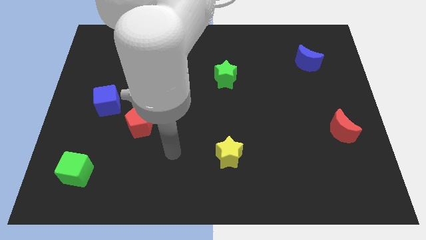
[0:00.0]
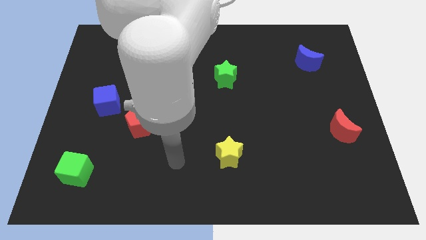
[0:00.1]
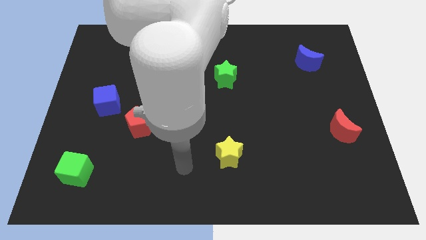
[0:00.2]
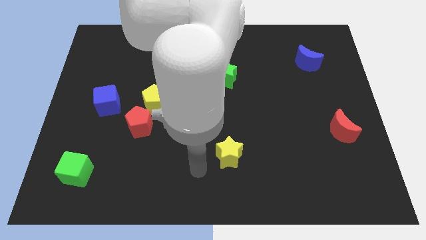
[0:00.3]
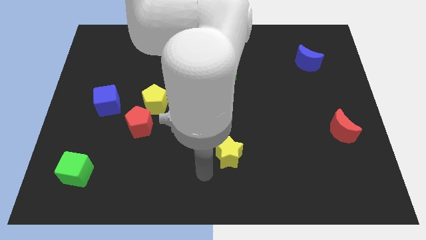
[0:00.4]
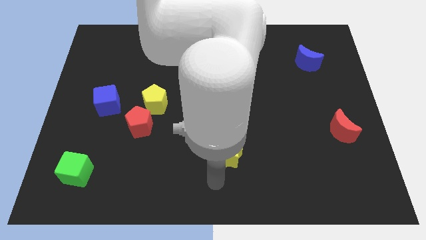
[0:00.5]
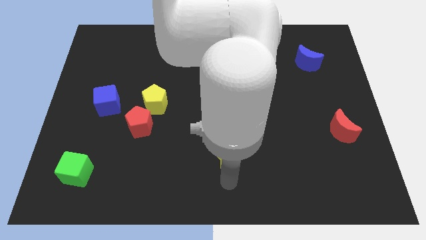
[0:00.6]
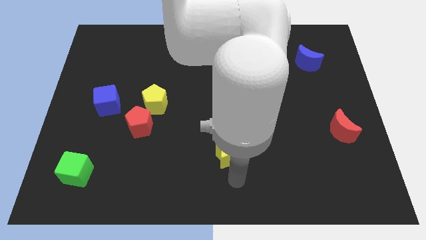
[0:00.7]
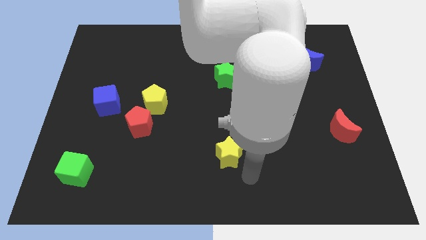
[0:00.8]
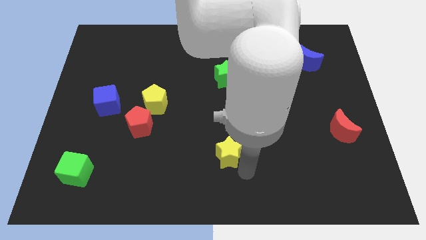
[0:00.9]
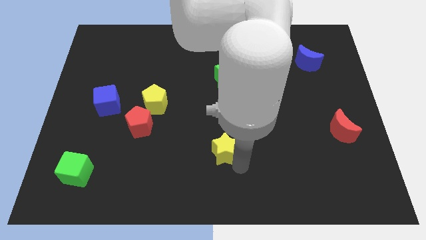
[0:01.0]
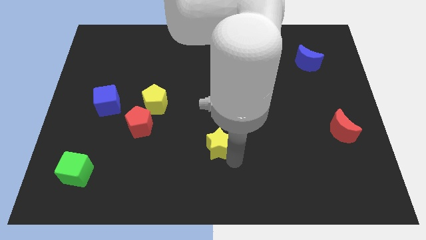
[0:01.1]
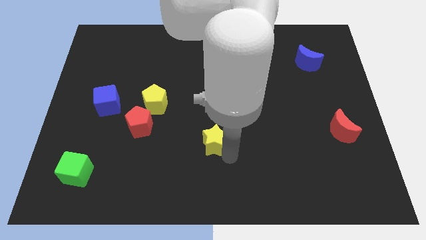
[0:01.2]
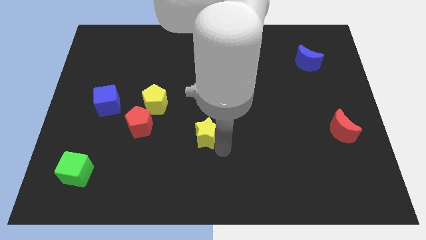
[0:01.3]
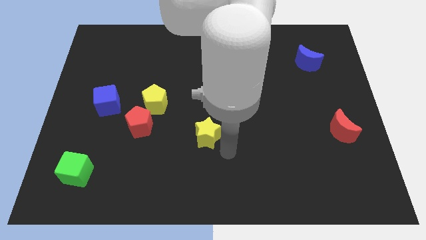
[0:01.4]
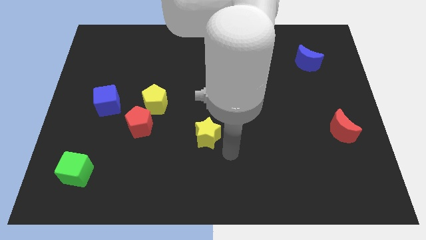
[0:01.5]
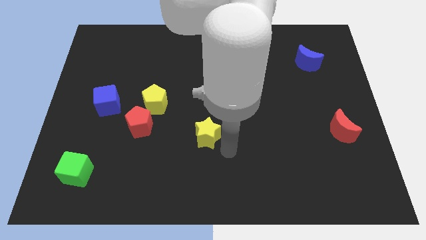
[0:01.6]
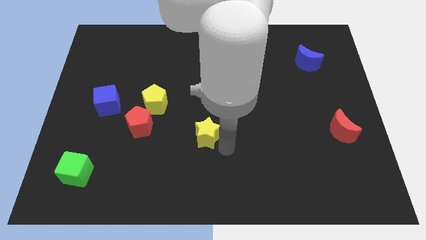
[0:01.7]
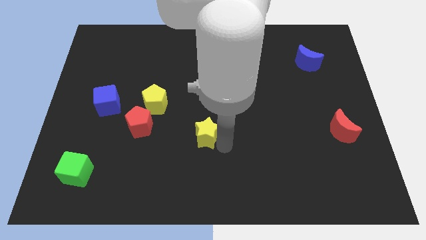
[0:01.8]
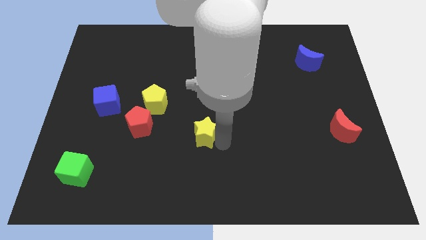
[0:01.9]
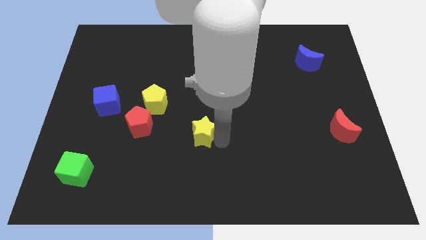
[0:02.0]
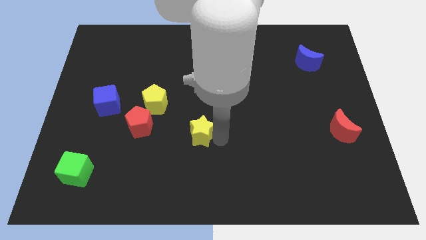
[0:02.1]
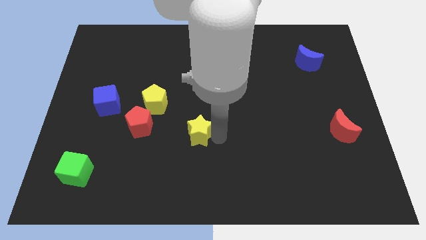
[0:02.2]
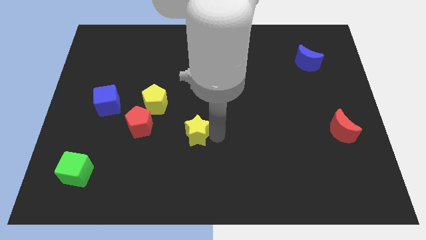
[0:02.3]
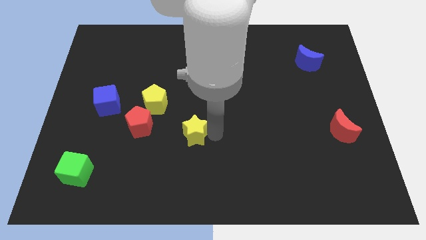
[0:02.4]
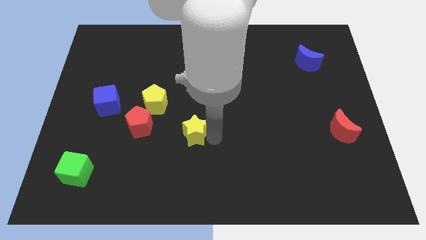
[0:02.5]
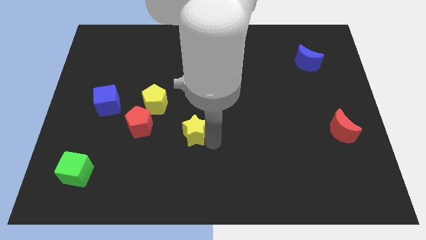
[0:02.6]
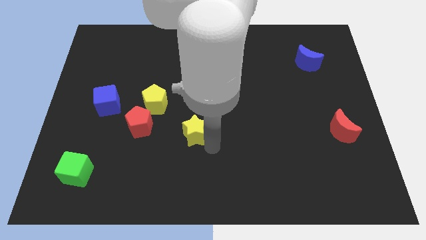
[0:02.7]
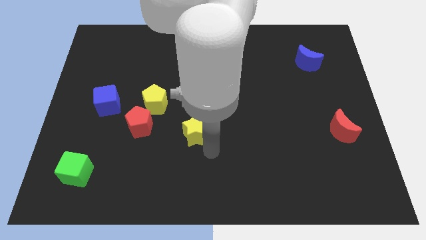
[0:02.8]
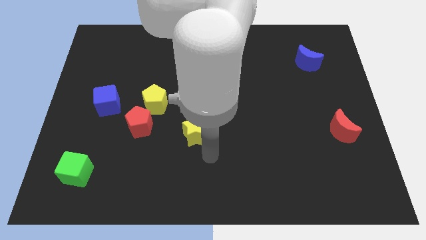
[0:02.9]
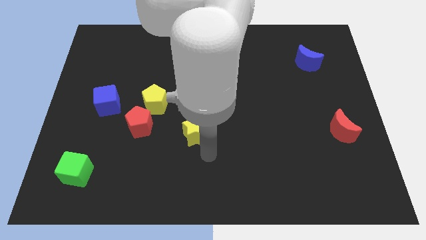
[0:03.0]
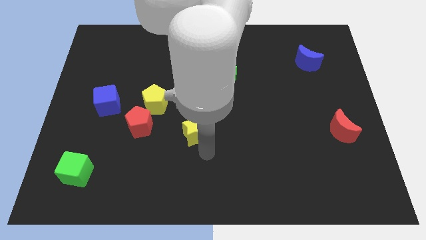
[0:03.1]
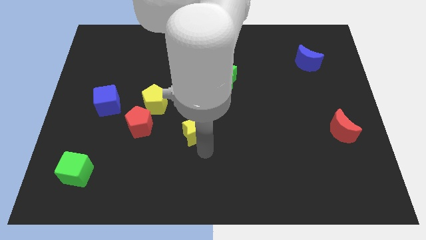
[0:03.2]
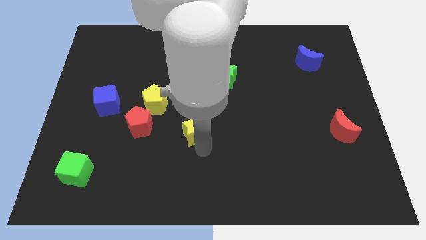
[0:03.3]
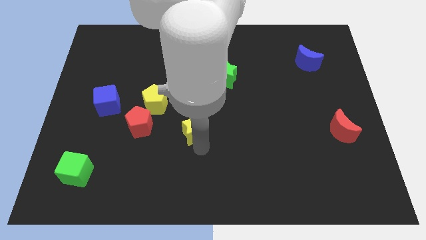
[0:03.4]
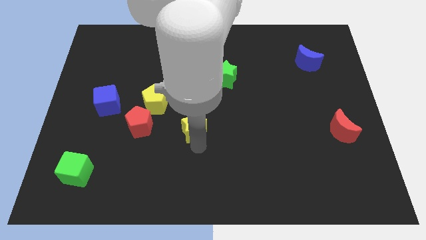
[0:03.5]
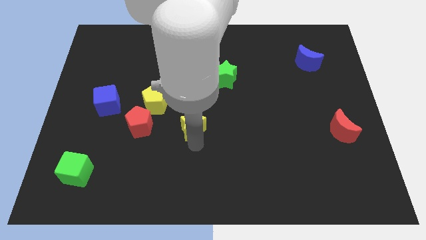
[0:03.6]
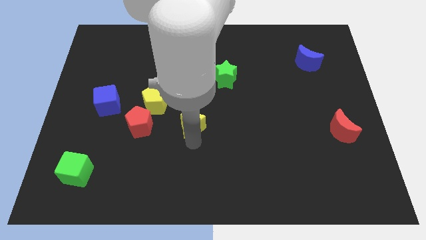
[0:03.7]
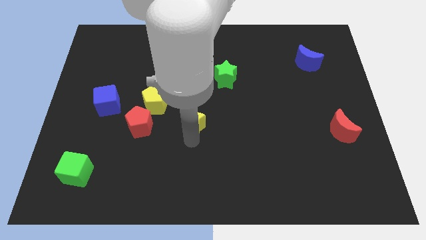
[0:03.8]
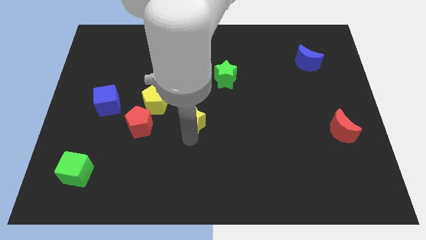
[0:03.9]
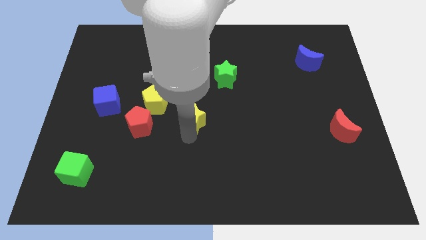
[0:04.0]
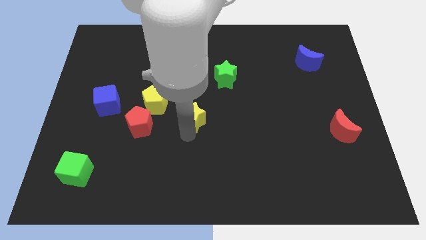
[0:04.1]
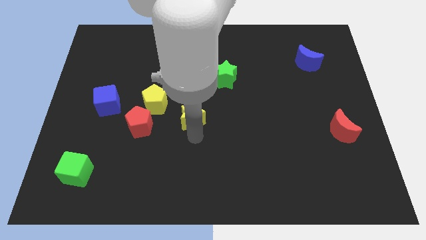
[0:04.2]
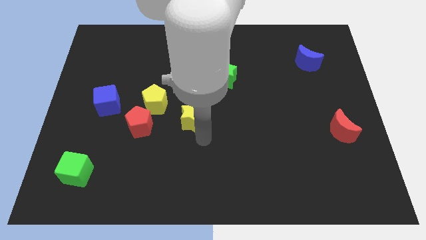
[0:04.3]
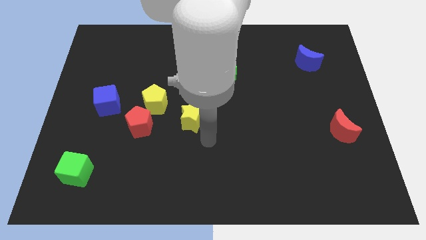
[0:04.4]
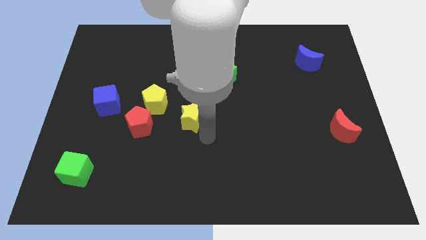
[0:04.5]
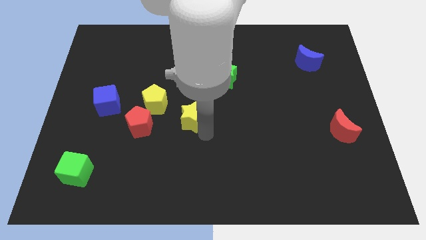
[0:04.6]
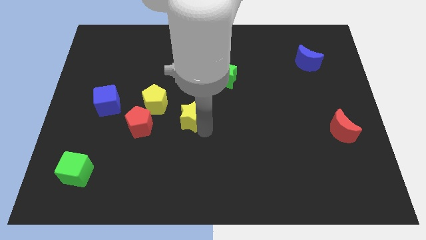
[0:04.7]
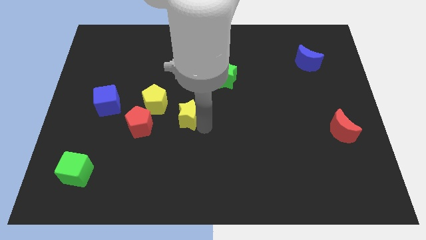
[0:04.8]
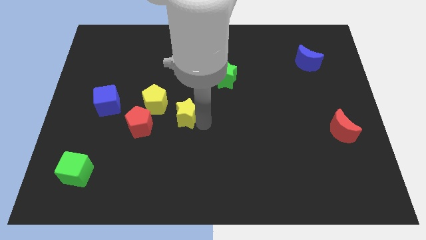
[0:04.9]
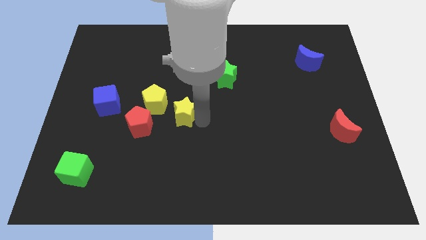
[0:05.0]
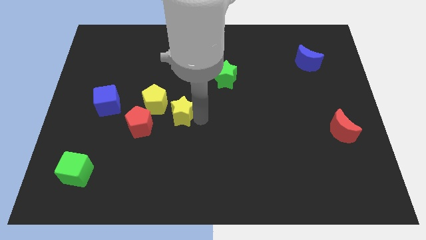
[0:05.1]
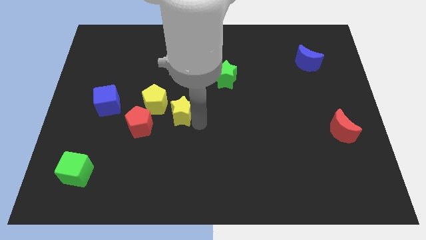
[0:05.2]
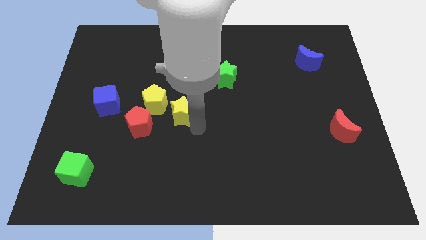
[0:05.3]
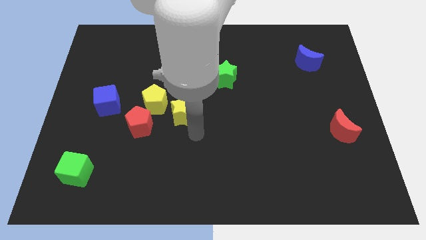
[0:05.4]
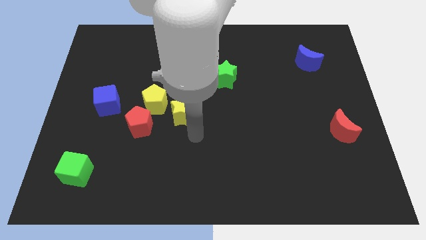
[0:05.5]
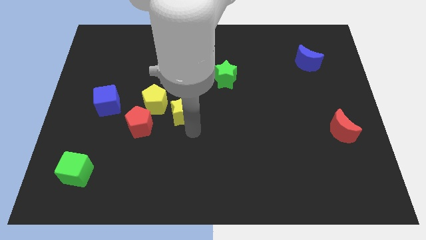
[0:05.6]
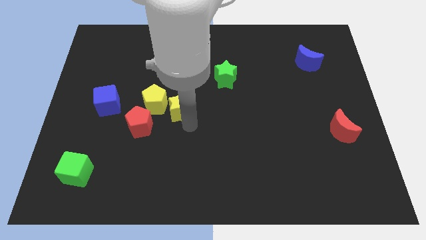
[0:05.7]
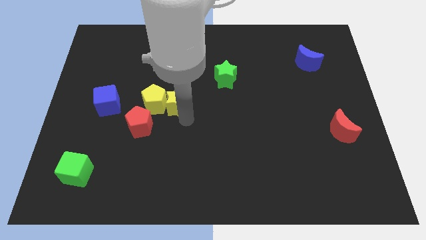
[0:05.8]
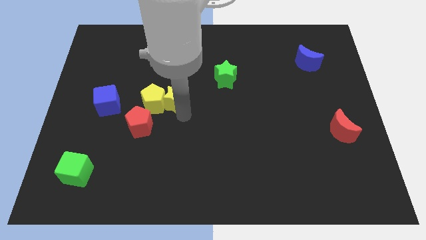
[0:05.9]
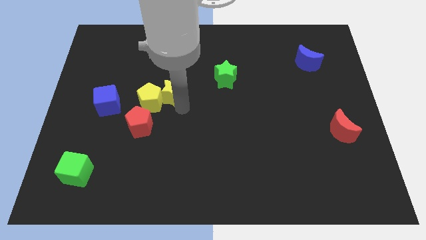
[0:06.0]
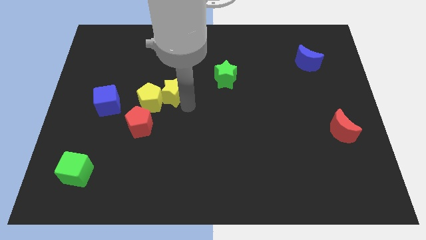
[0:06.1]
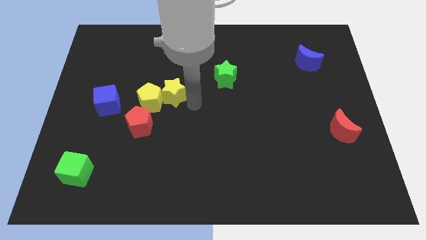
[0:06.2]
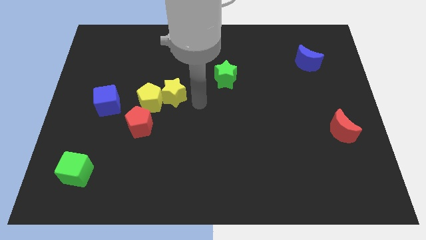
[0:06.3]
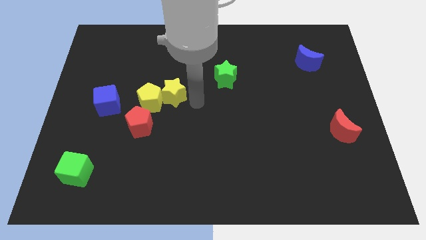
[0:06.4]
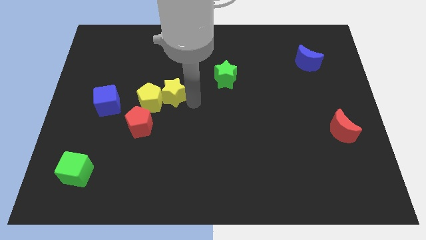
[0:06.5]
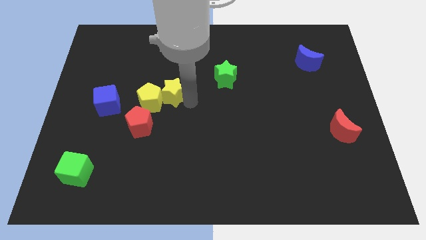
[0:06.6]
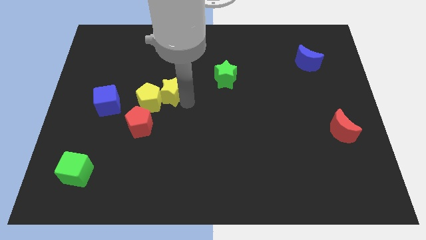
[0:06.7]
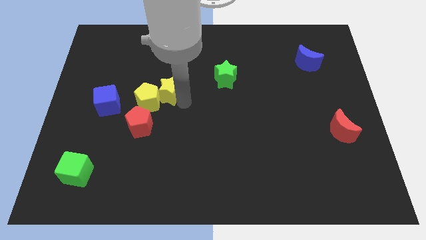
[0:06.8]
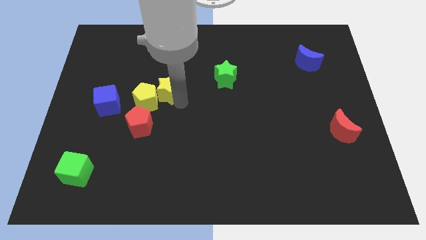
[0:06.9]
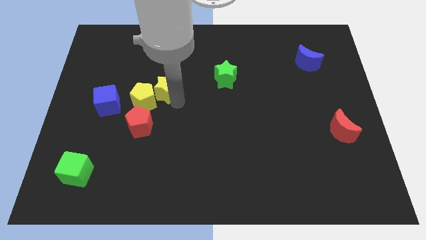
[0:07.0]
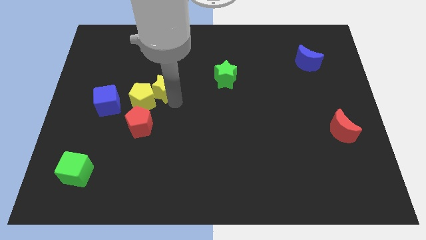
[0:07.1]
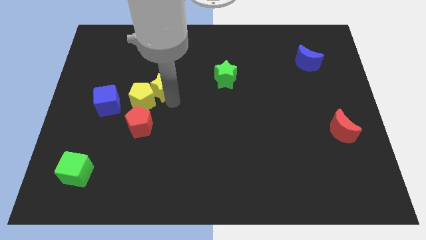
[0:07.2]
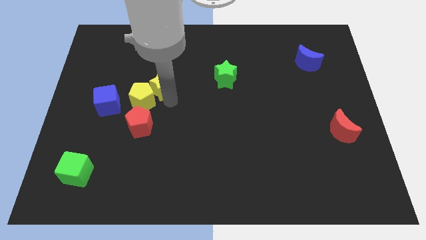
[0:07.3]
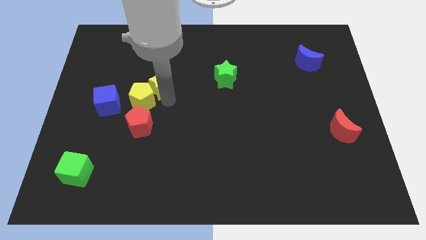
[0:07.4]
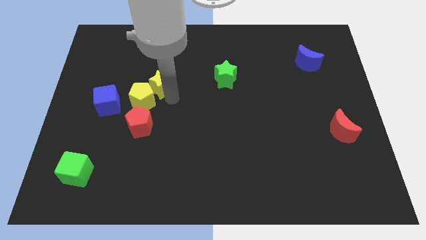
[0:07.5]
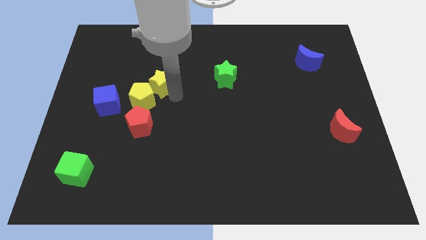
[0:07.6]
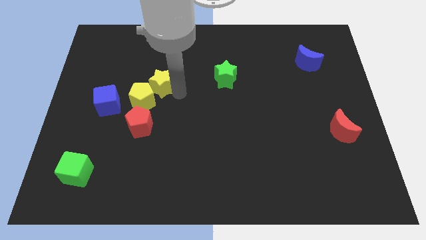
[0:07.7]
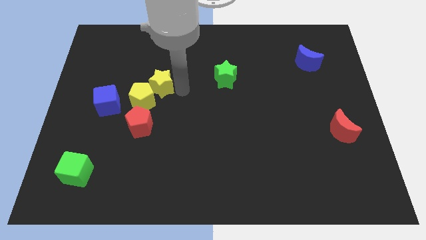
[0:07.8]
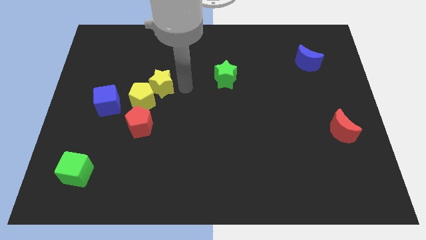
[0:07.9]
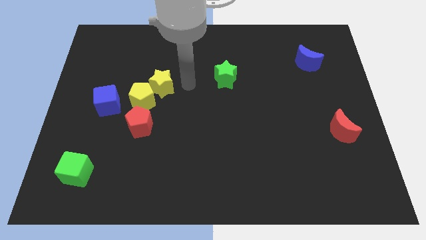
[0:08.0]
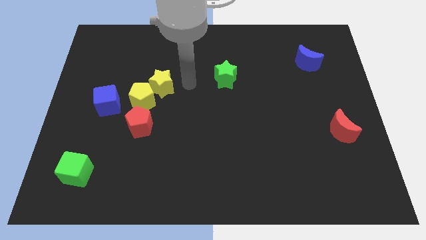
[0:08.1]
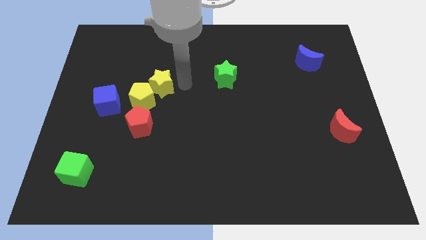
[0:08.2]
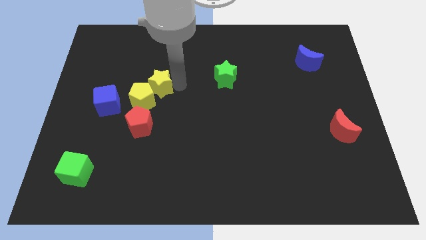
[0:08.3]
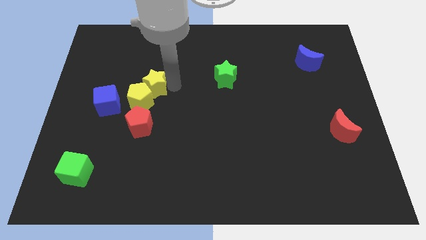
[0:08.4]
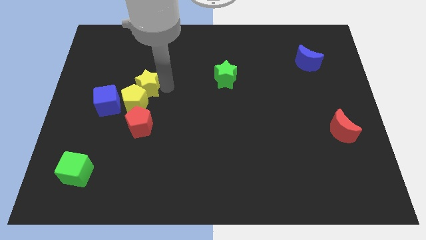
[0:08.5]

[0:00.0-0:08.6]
put the yellow star to the top right side of the blue cube
